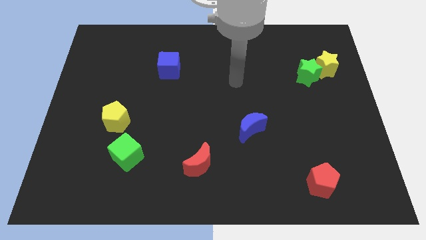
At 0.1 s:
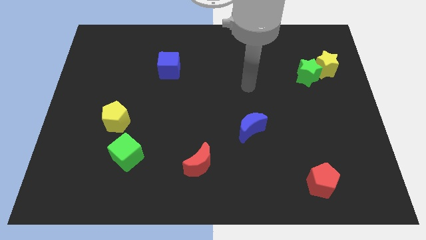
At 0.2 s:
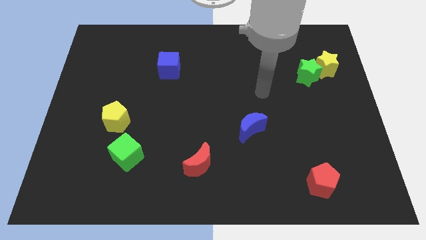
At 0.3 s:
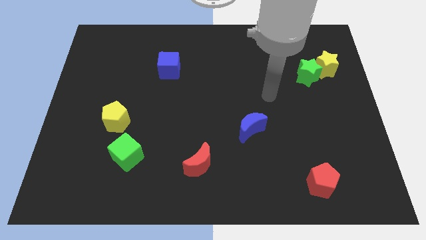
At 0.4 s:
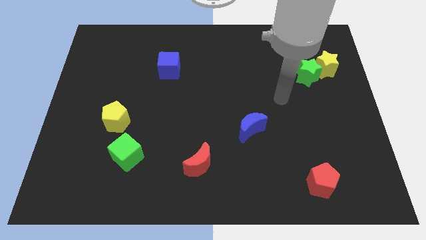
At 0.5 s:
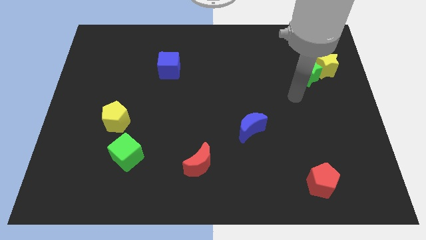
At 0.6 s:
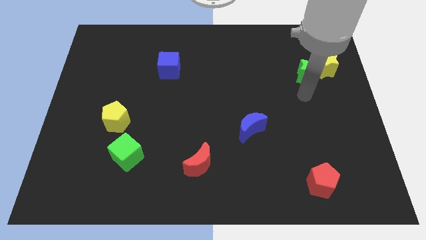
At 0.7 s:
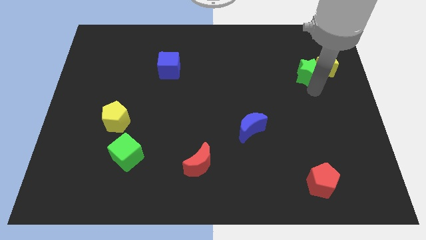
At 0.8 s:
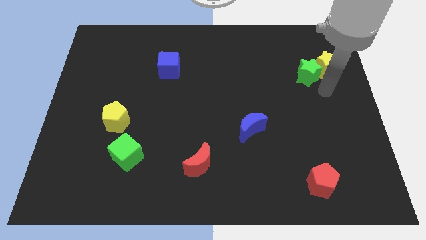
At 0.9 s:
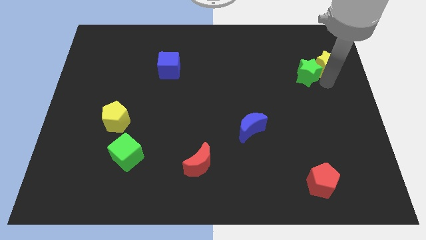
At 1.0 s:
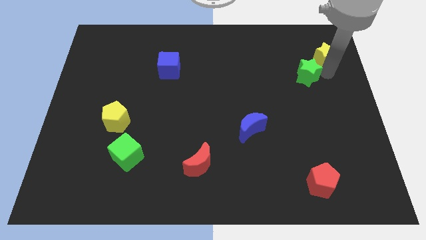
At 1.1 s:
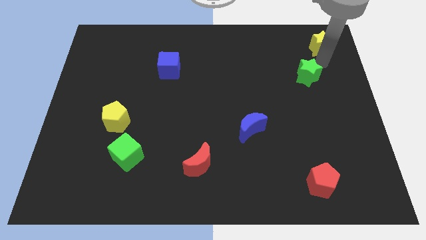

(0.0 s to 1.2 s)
pull the green star apart from the yellow star

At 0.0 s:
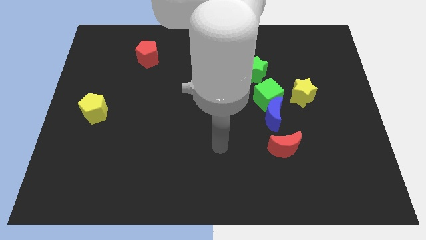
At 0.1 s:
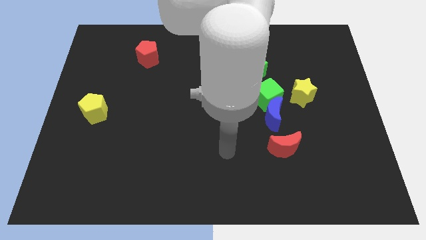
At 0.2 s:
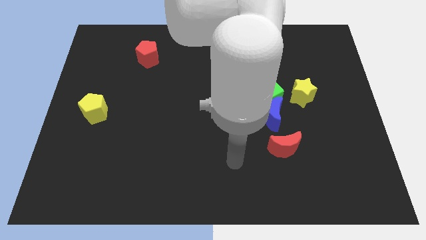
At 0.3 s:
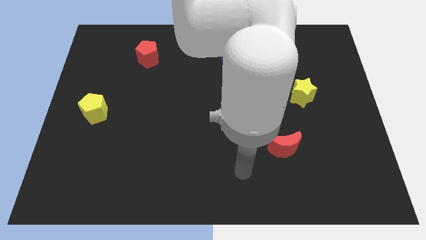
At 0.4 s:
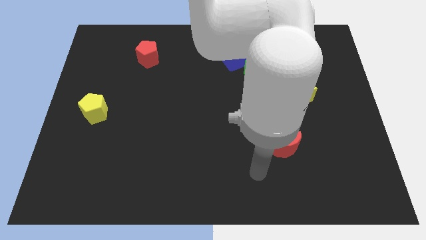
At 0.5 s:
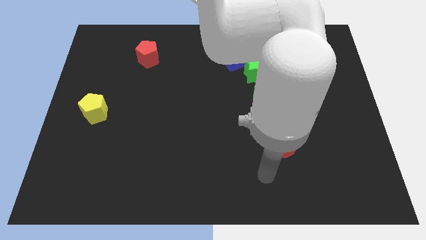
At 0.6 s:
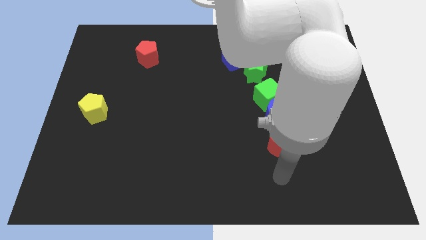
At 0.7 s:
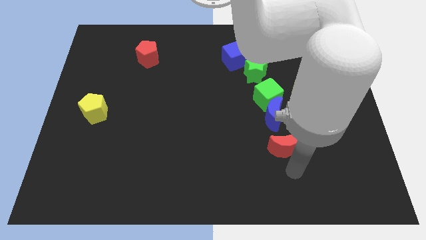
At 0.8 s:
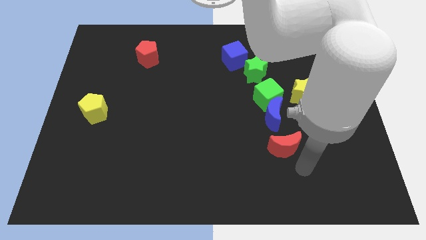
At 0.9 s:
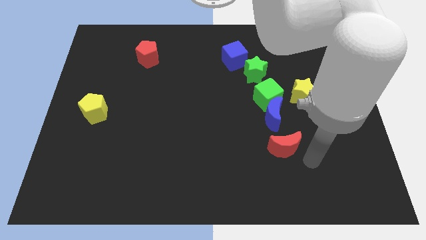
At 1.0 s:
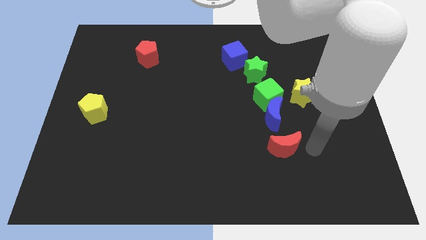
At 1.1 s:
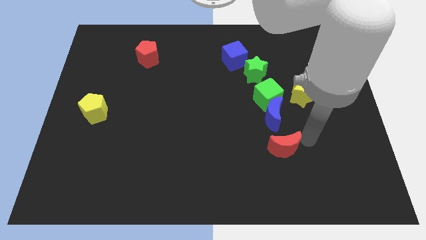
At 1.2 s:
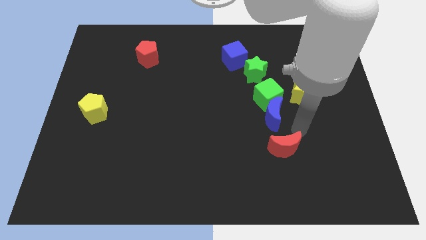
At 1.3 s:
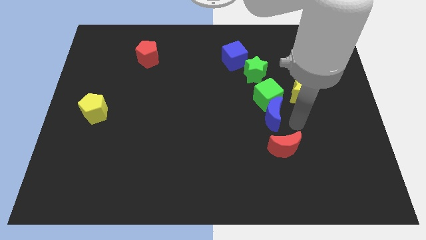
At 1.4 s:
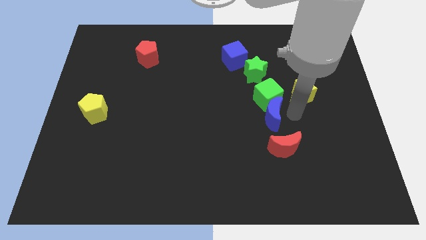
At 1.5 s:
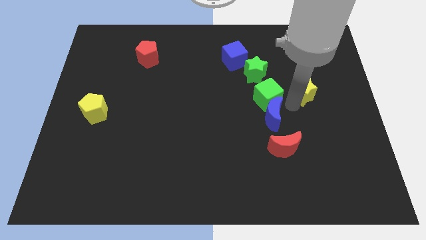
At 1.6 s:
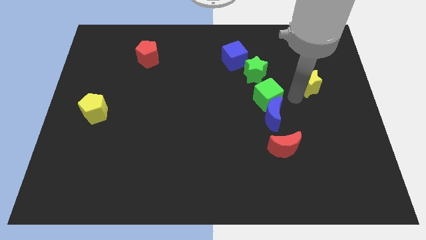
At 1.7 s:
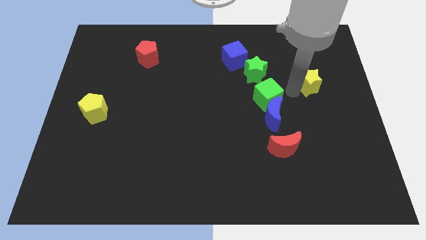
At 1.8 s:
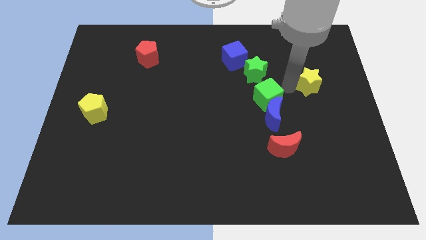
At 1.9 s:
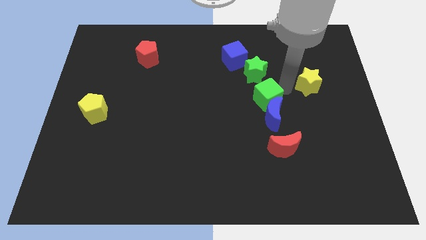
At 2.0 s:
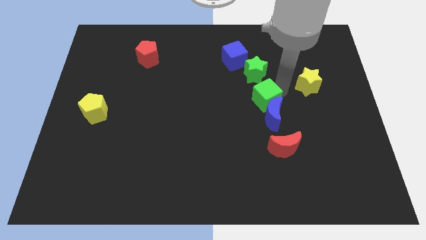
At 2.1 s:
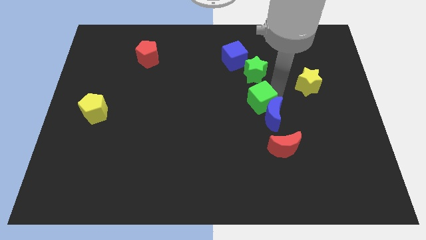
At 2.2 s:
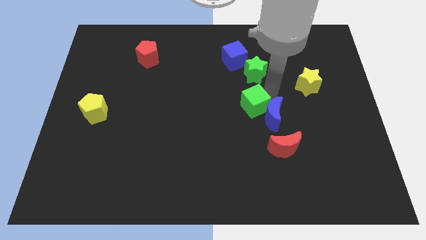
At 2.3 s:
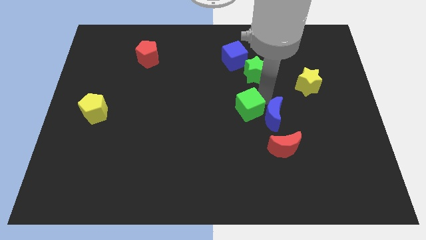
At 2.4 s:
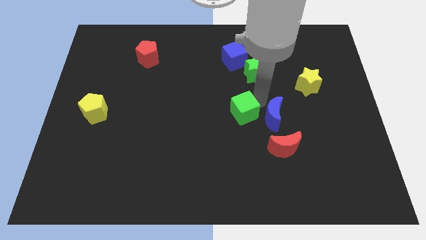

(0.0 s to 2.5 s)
separate the green cube from the clump

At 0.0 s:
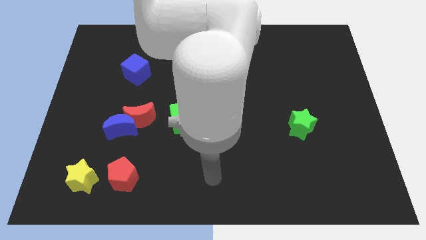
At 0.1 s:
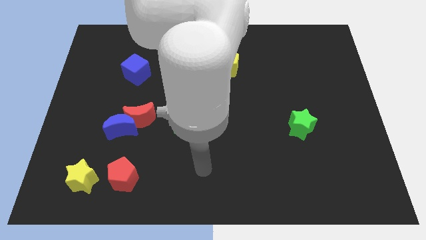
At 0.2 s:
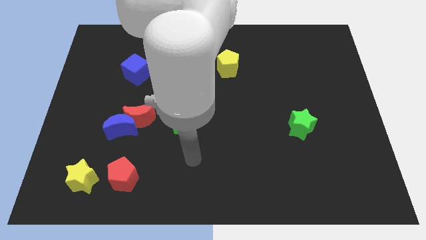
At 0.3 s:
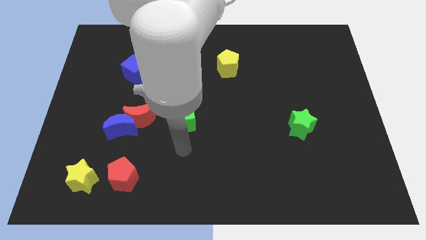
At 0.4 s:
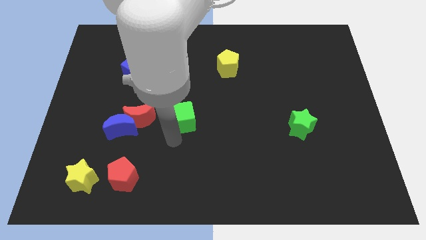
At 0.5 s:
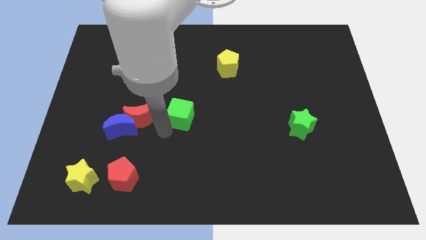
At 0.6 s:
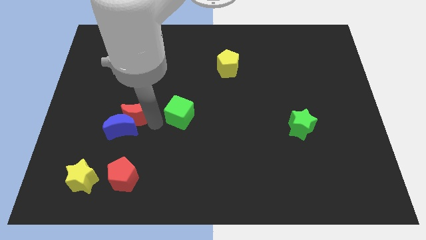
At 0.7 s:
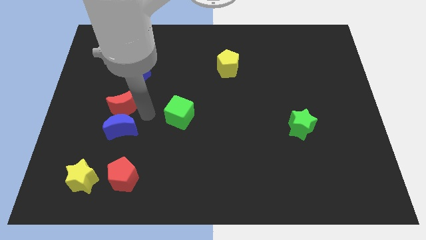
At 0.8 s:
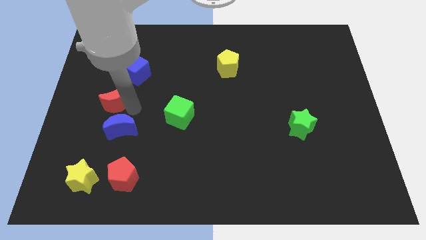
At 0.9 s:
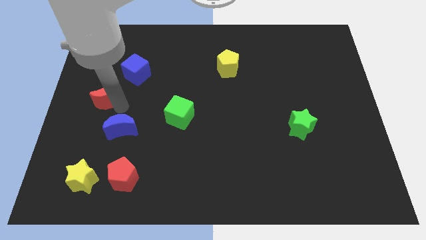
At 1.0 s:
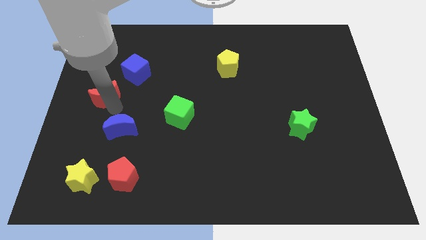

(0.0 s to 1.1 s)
move the blue moon away from the red moon

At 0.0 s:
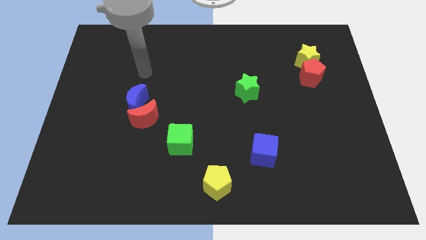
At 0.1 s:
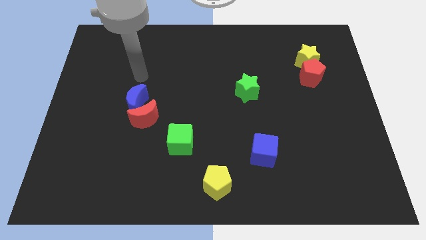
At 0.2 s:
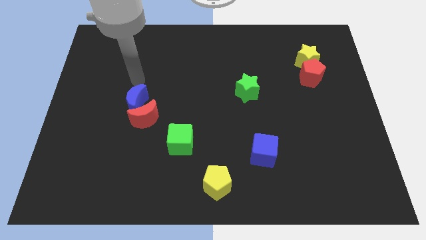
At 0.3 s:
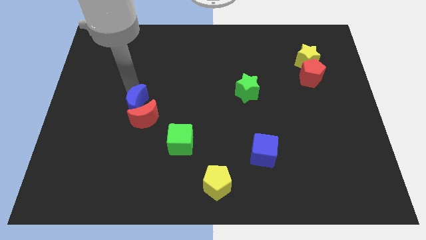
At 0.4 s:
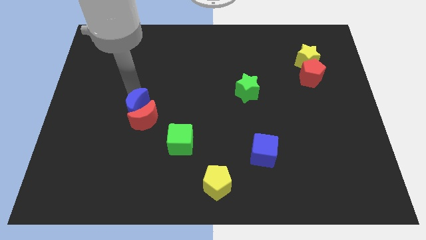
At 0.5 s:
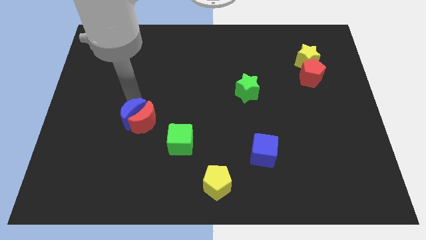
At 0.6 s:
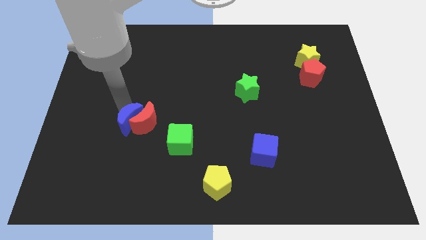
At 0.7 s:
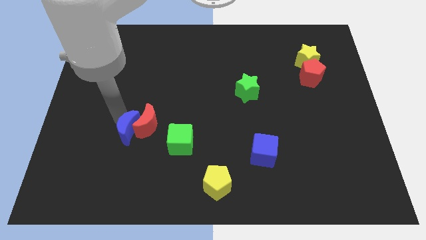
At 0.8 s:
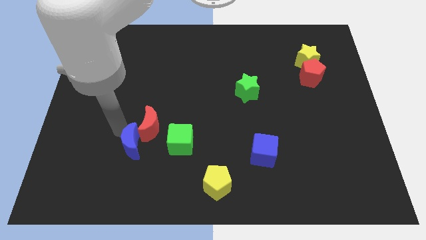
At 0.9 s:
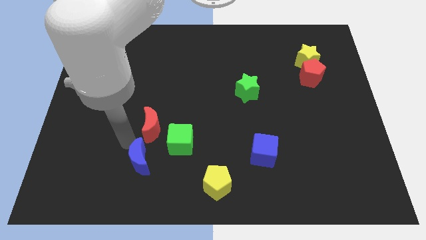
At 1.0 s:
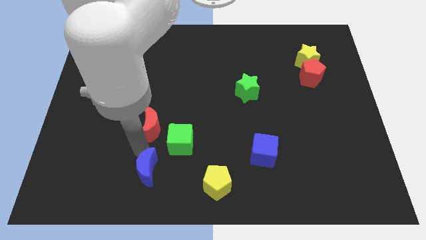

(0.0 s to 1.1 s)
separate the red moon from the blue moon

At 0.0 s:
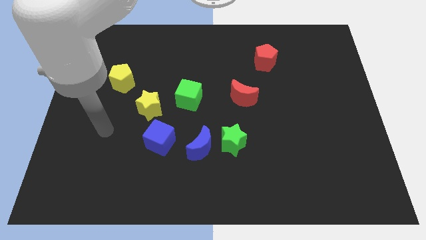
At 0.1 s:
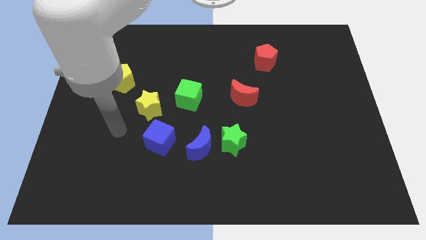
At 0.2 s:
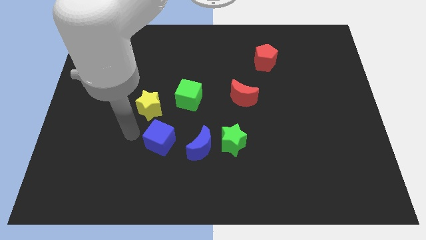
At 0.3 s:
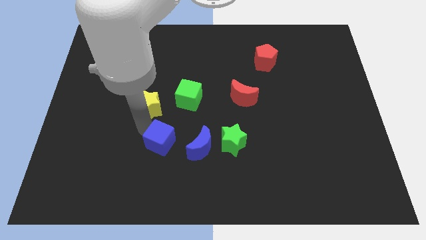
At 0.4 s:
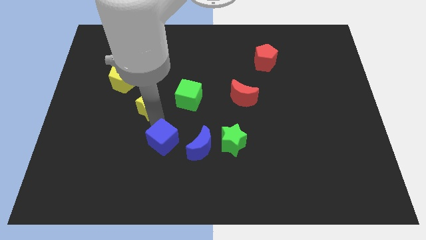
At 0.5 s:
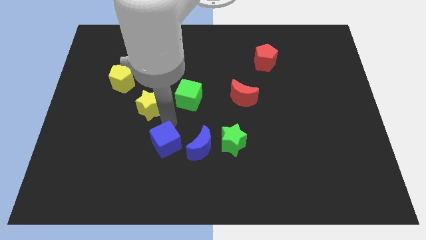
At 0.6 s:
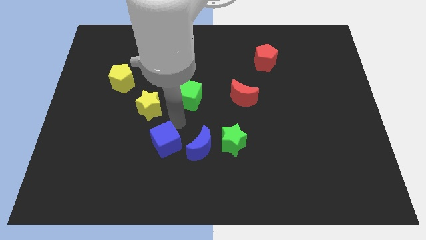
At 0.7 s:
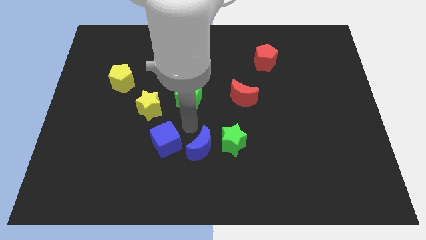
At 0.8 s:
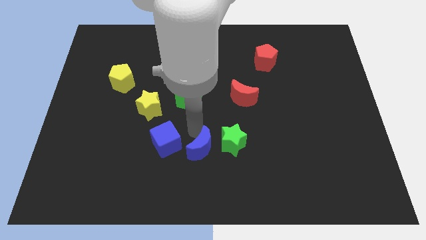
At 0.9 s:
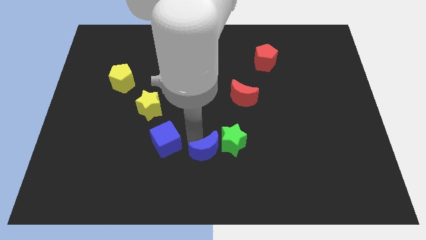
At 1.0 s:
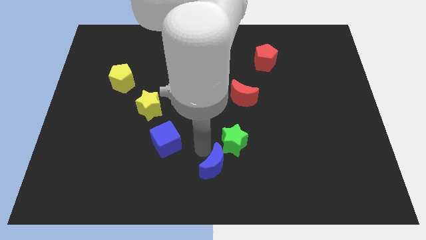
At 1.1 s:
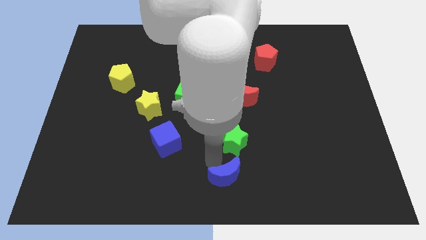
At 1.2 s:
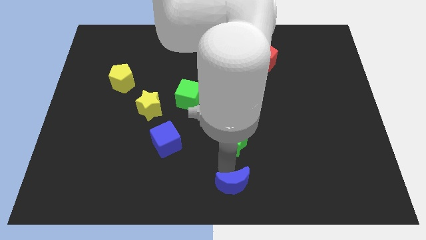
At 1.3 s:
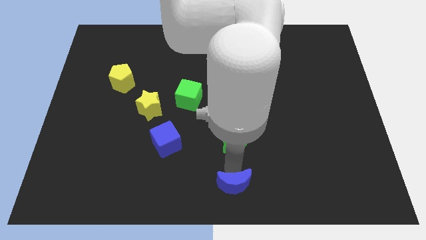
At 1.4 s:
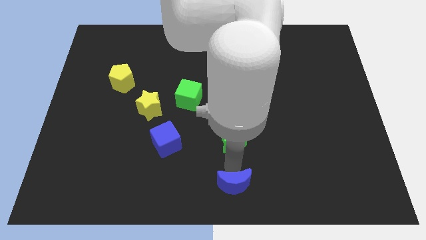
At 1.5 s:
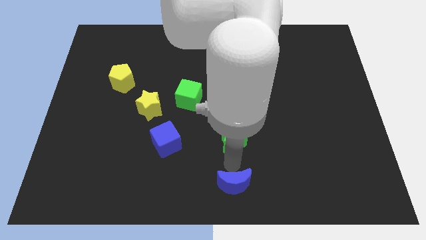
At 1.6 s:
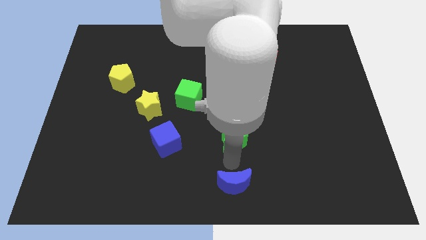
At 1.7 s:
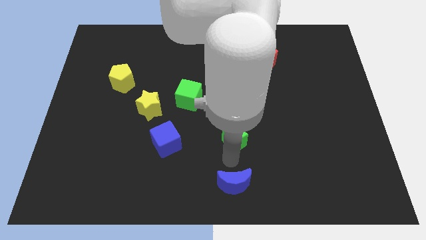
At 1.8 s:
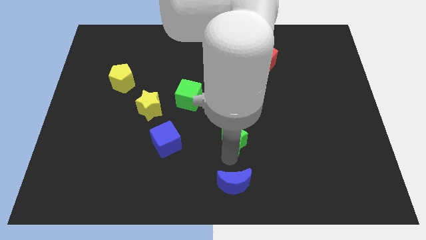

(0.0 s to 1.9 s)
move the green star away from the blue moon

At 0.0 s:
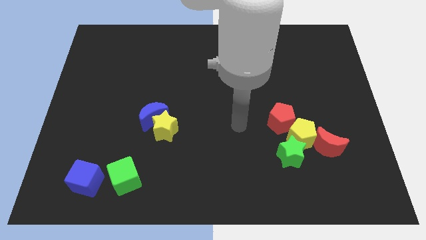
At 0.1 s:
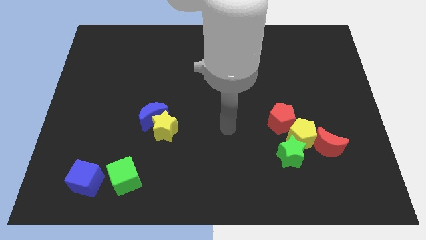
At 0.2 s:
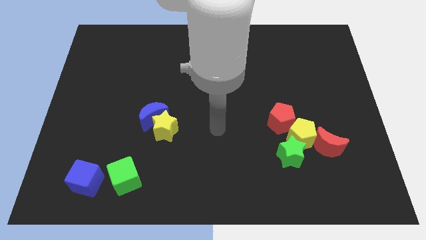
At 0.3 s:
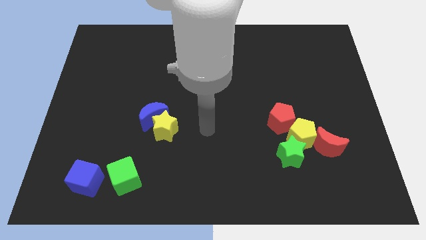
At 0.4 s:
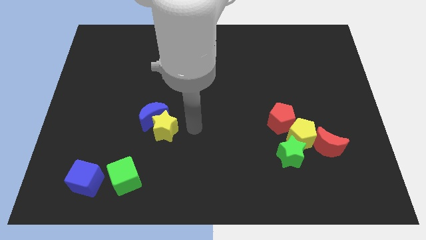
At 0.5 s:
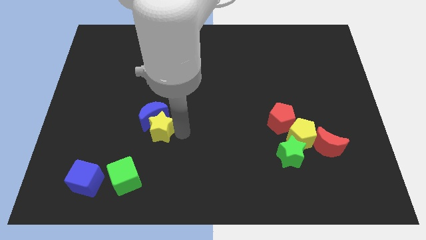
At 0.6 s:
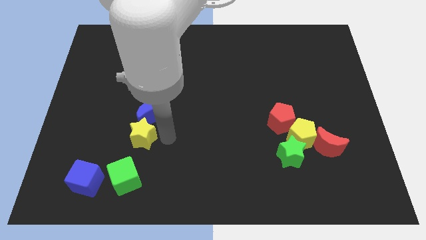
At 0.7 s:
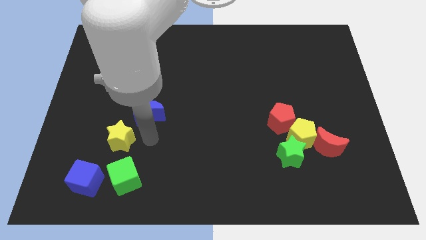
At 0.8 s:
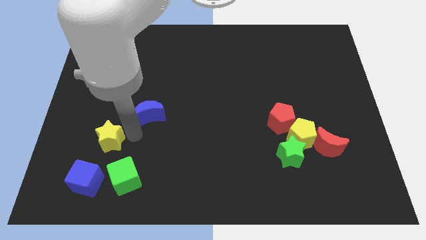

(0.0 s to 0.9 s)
move the blue moon away from the yellow star

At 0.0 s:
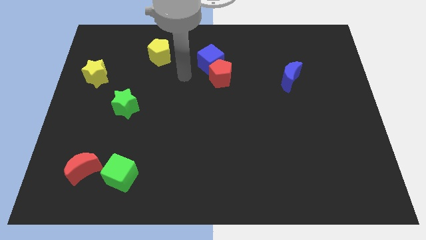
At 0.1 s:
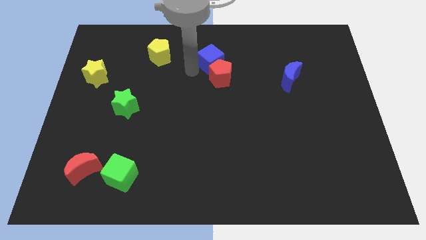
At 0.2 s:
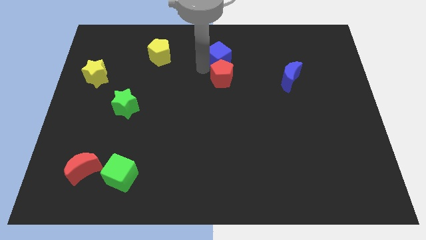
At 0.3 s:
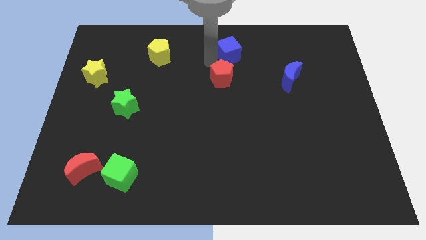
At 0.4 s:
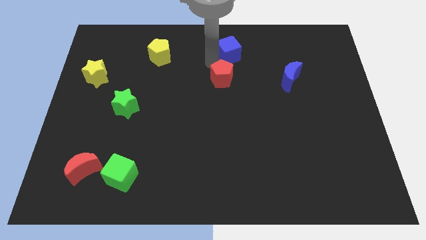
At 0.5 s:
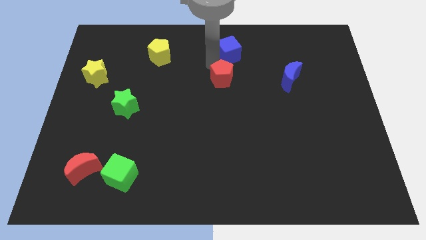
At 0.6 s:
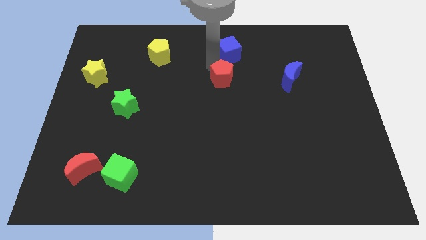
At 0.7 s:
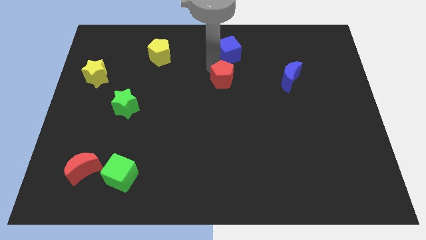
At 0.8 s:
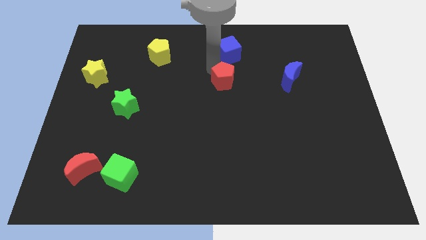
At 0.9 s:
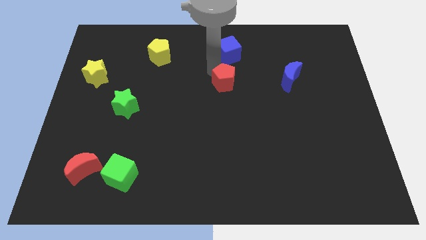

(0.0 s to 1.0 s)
move the red pentagon away from the blue cube
